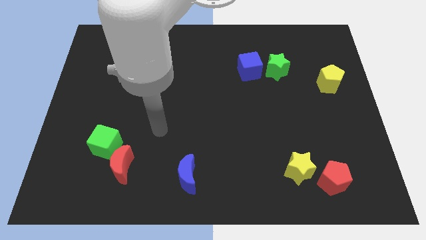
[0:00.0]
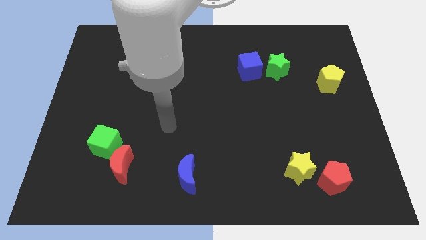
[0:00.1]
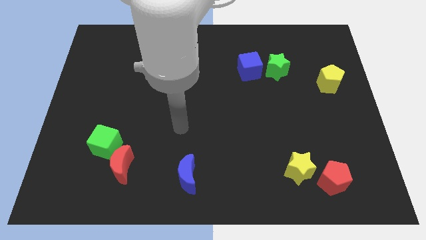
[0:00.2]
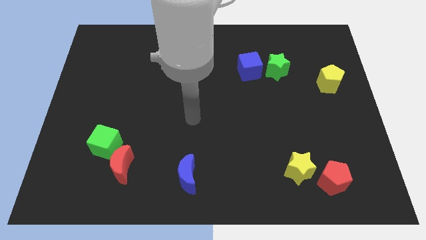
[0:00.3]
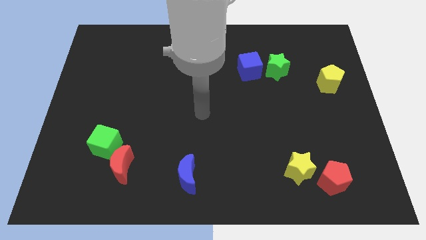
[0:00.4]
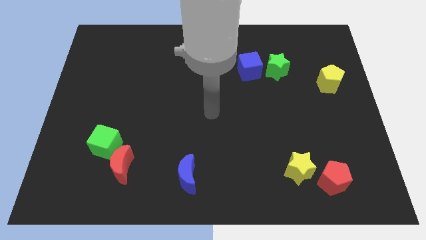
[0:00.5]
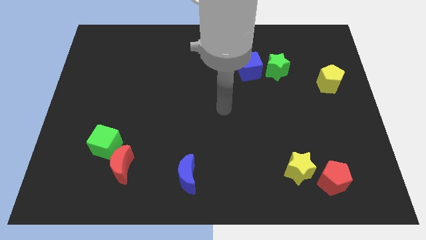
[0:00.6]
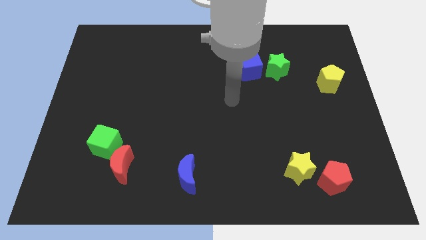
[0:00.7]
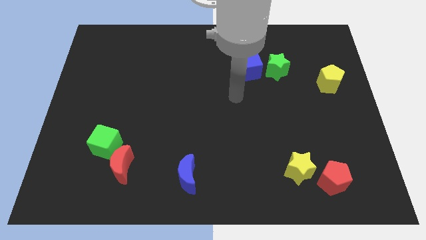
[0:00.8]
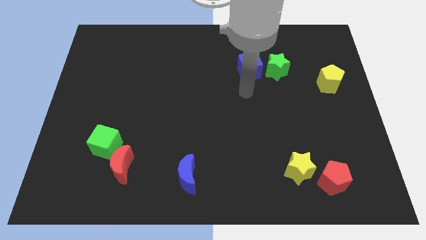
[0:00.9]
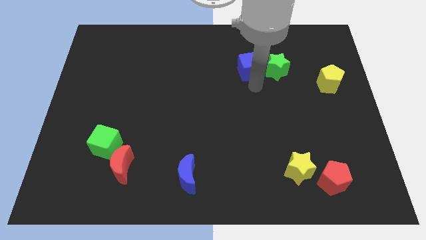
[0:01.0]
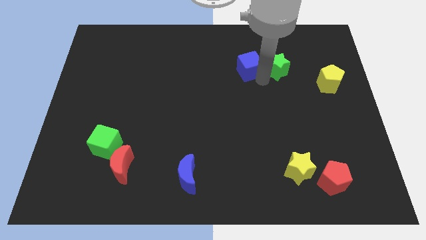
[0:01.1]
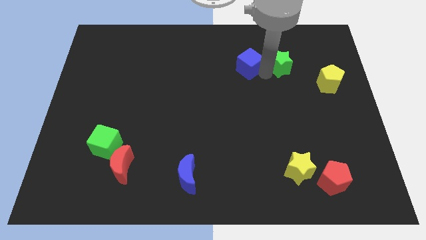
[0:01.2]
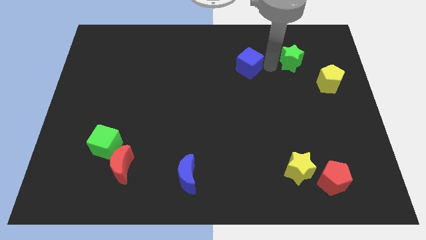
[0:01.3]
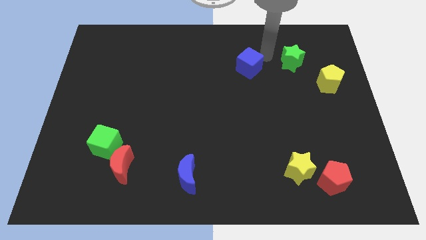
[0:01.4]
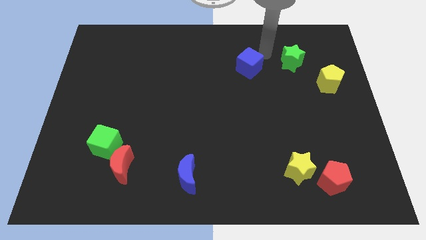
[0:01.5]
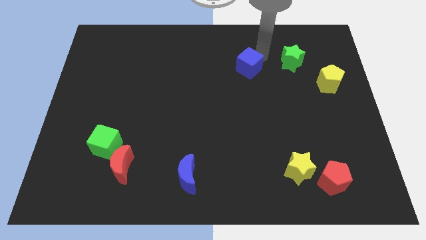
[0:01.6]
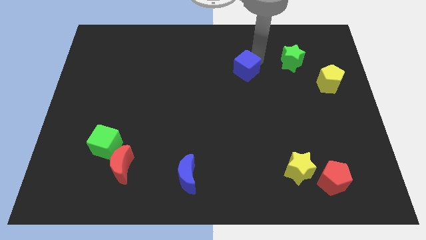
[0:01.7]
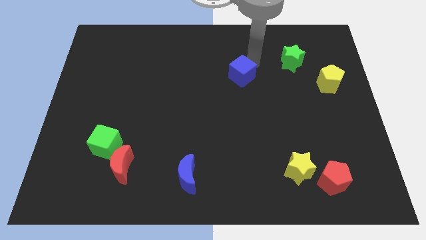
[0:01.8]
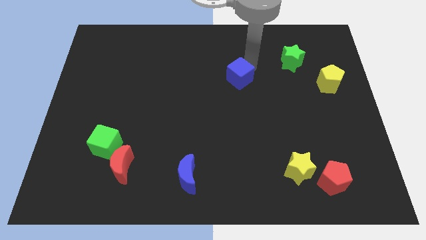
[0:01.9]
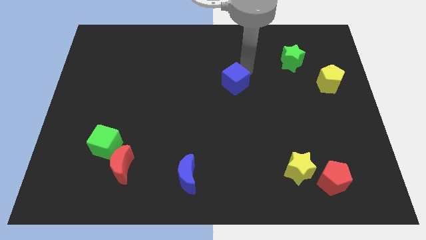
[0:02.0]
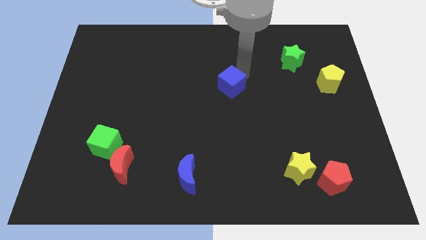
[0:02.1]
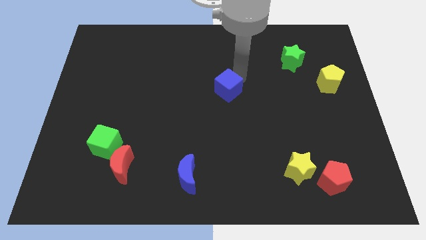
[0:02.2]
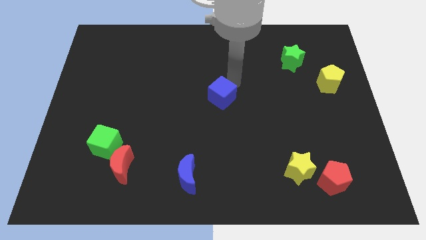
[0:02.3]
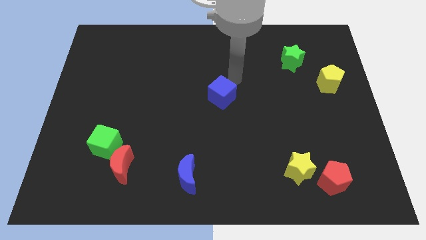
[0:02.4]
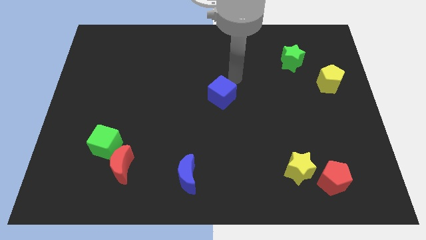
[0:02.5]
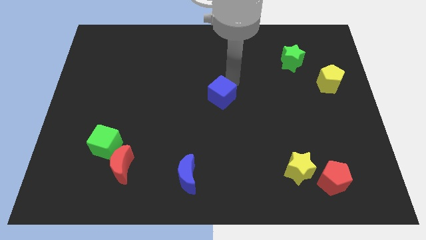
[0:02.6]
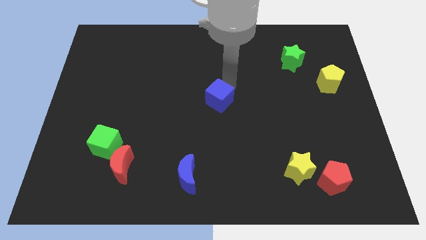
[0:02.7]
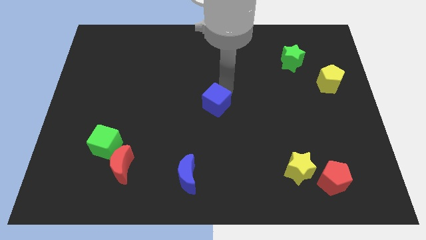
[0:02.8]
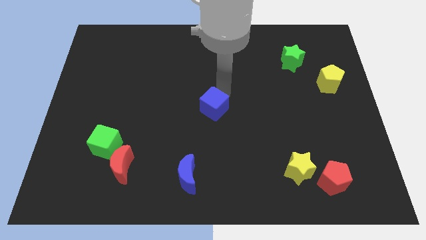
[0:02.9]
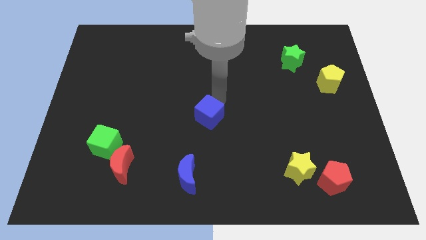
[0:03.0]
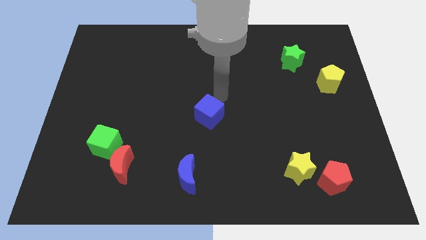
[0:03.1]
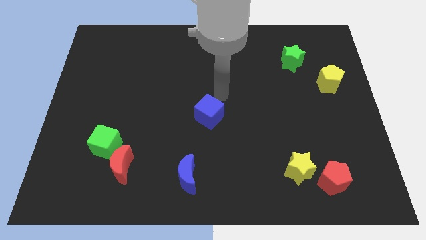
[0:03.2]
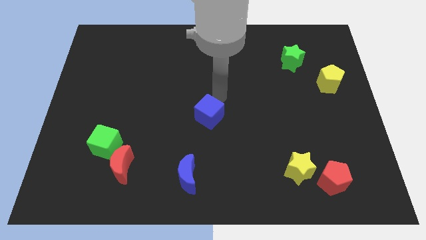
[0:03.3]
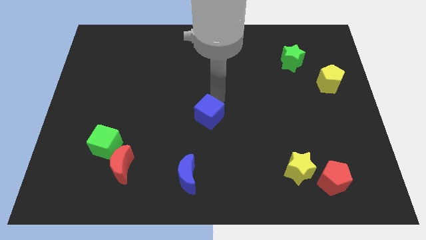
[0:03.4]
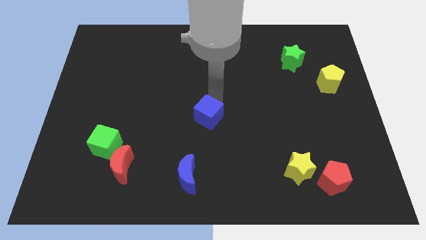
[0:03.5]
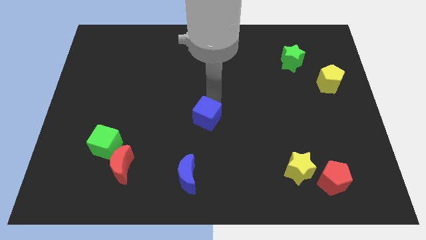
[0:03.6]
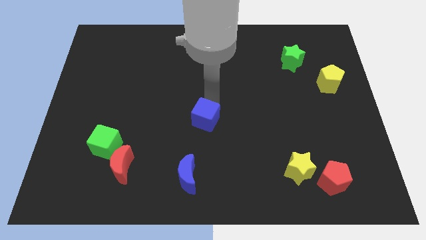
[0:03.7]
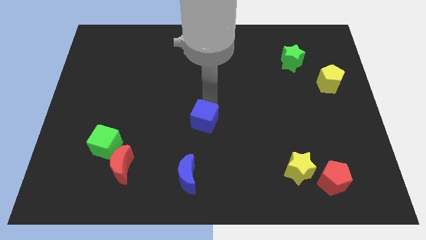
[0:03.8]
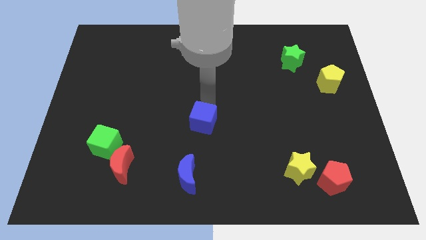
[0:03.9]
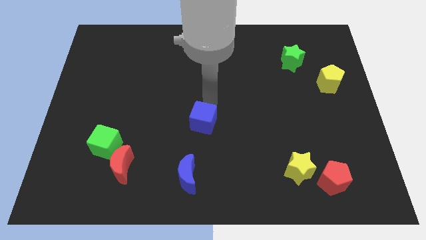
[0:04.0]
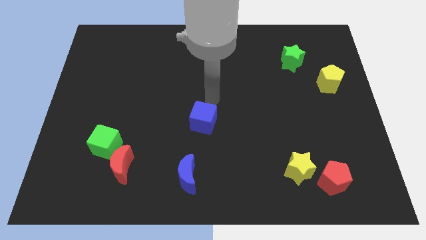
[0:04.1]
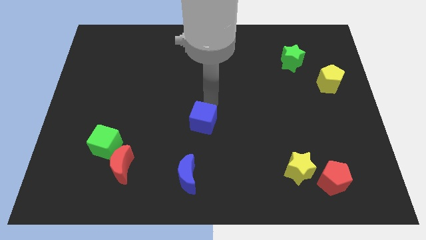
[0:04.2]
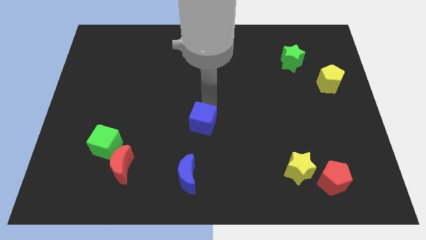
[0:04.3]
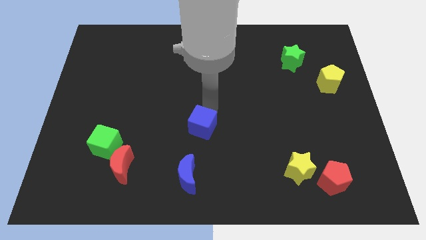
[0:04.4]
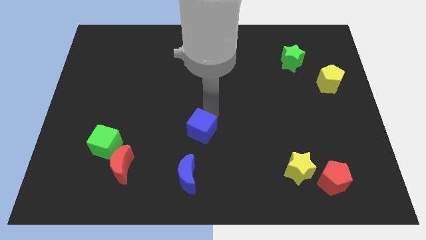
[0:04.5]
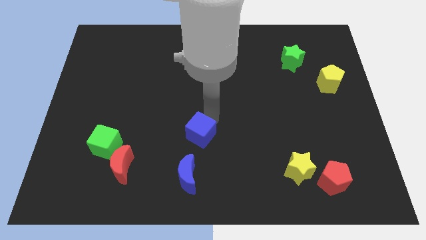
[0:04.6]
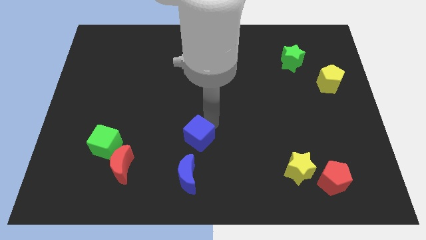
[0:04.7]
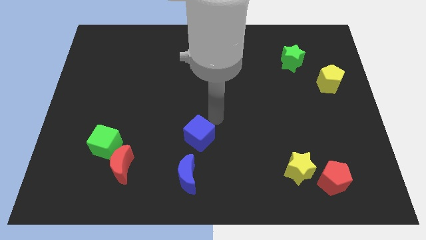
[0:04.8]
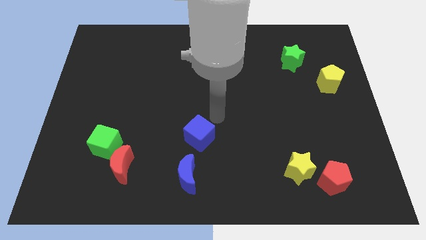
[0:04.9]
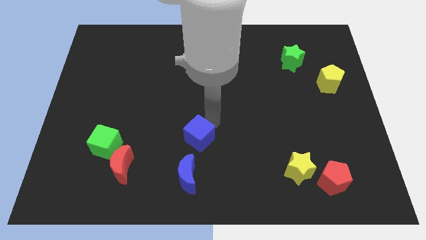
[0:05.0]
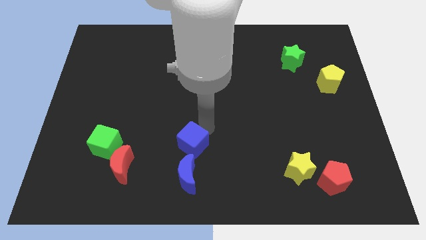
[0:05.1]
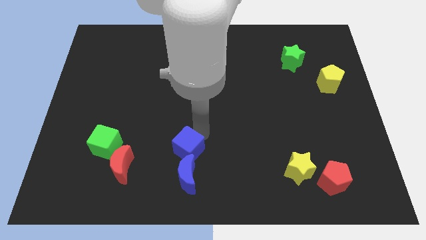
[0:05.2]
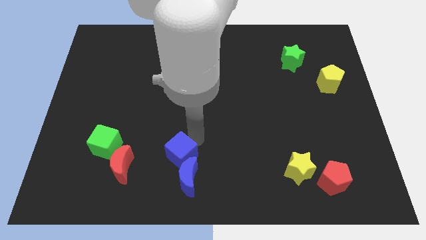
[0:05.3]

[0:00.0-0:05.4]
move the blue cube to the right side of the red moon

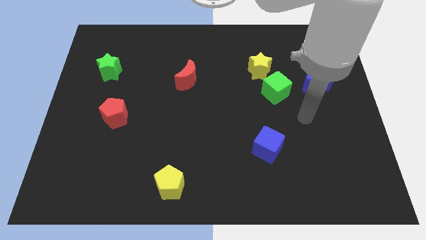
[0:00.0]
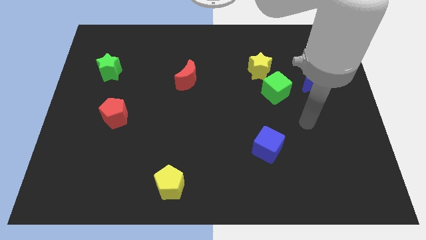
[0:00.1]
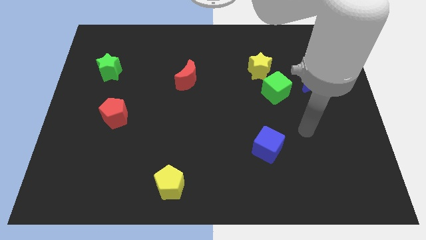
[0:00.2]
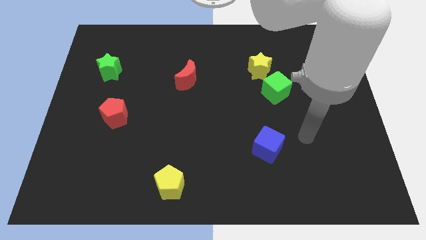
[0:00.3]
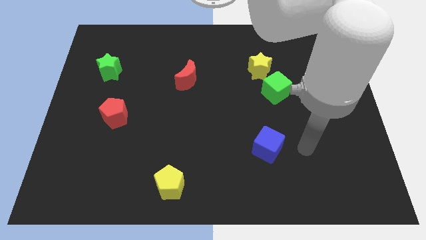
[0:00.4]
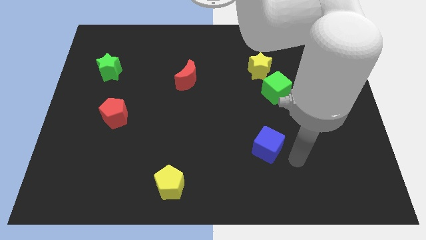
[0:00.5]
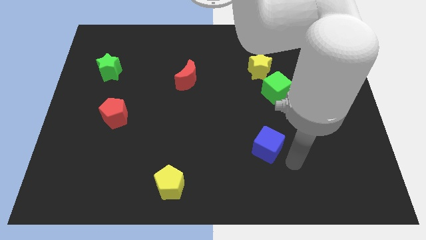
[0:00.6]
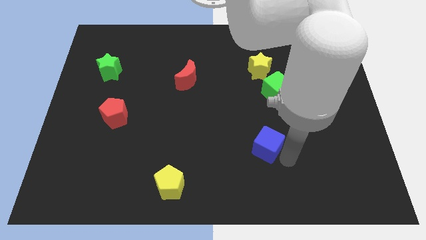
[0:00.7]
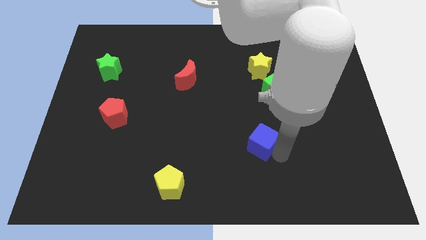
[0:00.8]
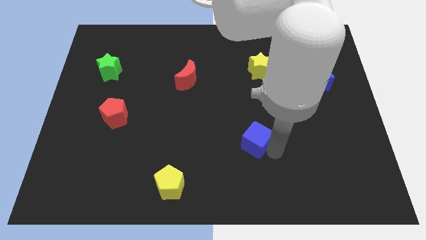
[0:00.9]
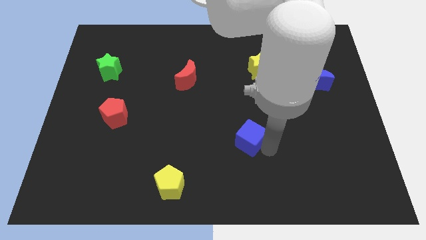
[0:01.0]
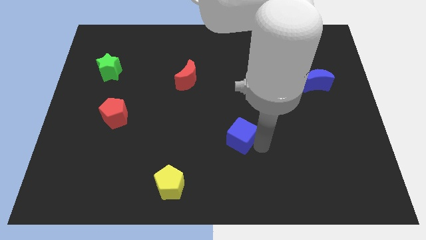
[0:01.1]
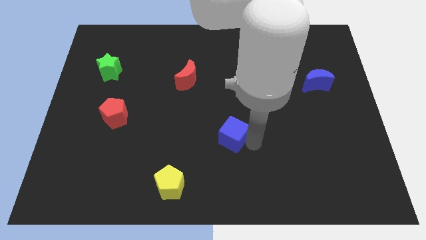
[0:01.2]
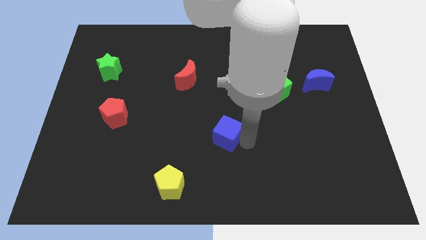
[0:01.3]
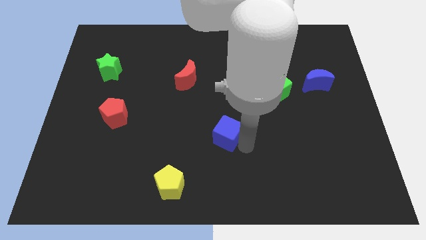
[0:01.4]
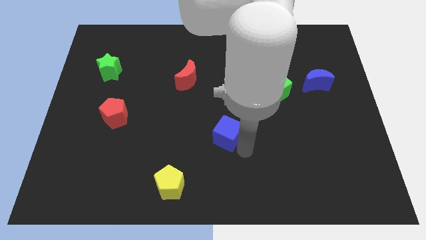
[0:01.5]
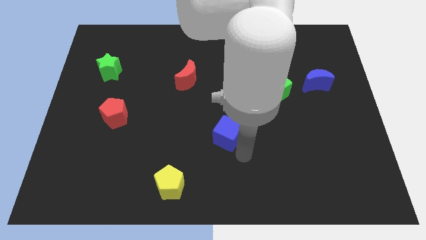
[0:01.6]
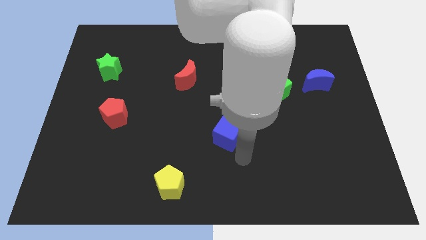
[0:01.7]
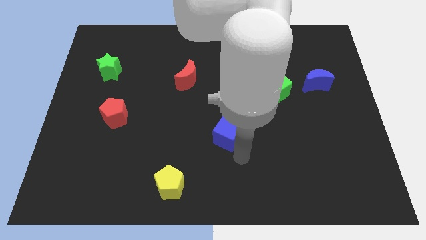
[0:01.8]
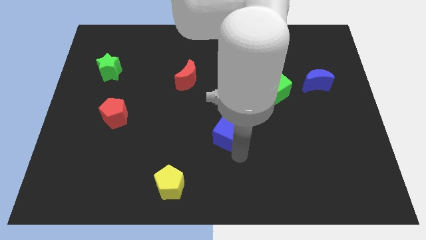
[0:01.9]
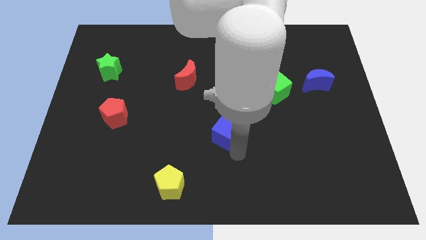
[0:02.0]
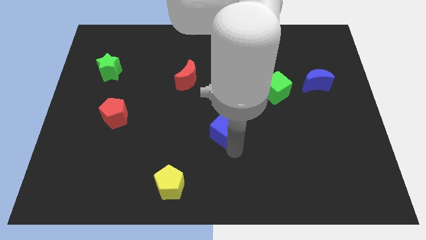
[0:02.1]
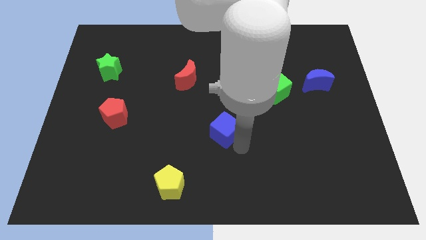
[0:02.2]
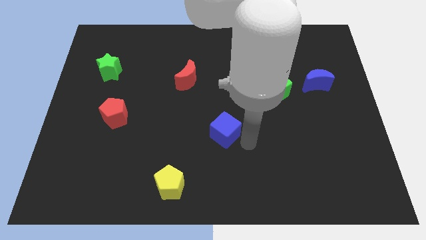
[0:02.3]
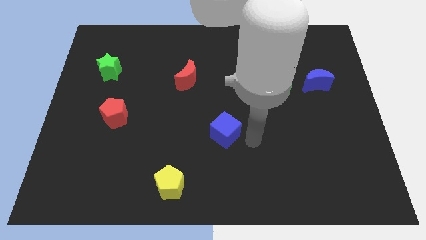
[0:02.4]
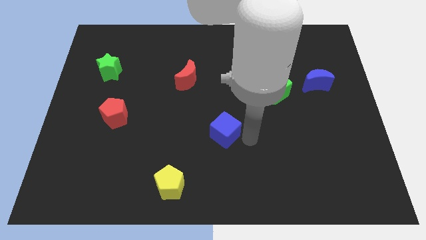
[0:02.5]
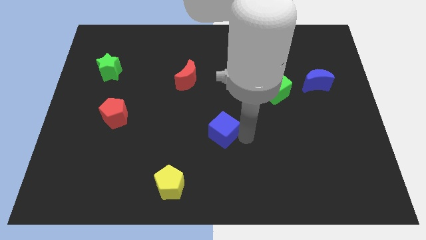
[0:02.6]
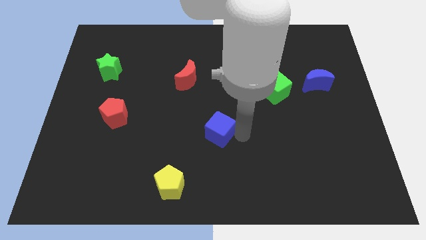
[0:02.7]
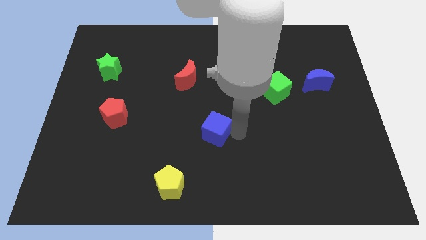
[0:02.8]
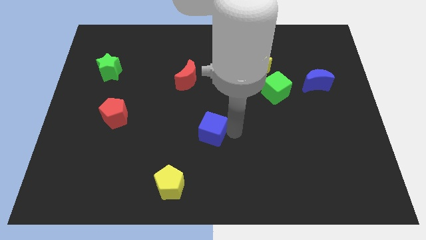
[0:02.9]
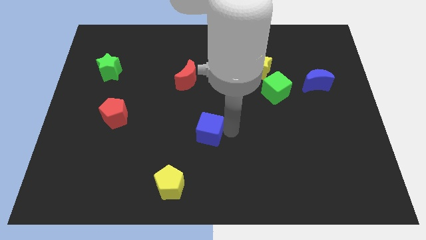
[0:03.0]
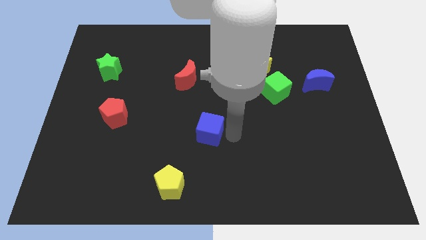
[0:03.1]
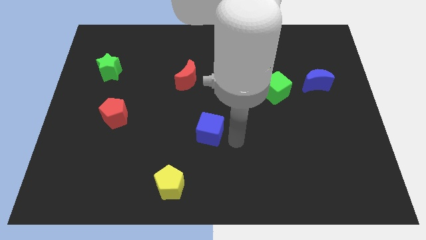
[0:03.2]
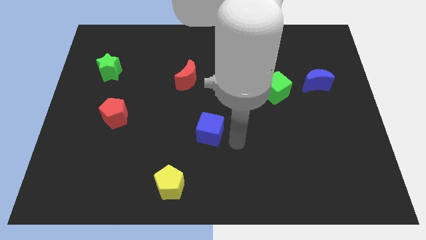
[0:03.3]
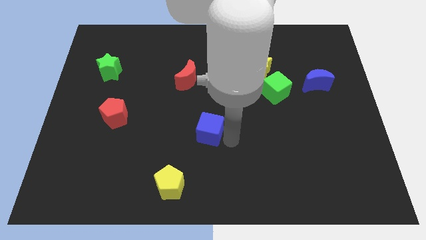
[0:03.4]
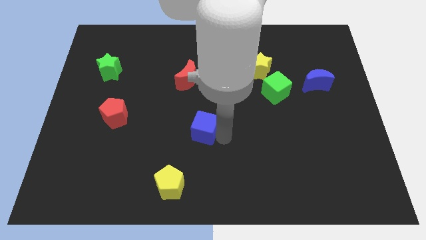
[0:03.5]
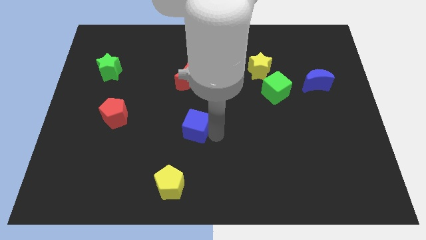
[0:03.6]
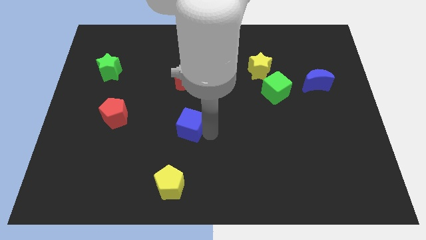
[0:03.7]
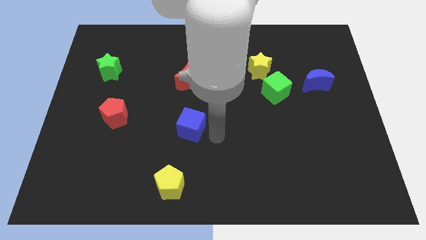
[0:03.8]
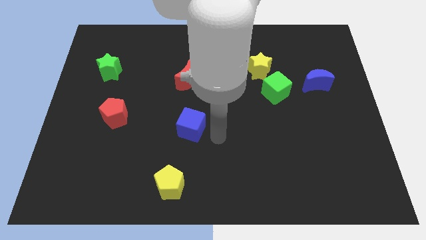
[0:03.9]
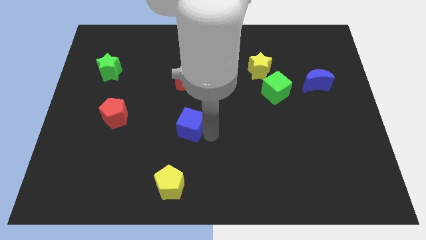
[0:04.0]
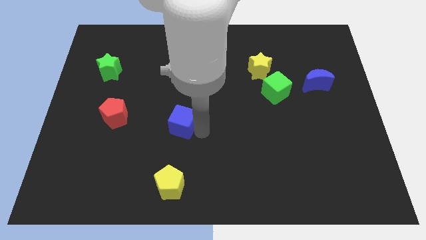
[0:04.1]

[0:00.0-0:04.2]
push the blue cube just right of the red pentagon
